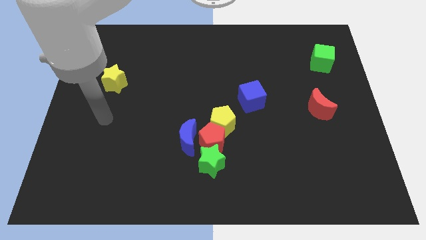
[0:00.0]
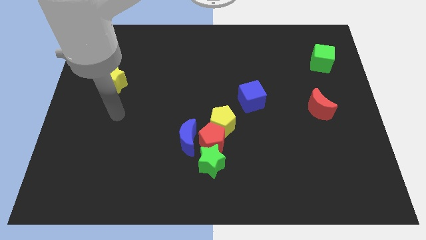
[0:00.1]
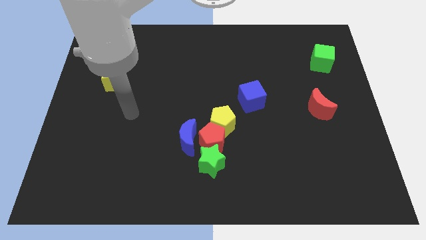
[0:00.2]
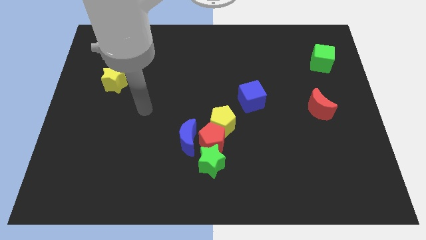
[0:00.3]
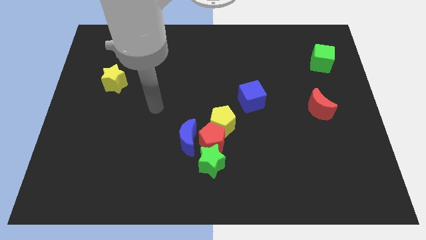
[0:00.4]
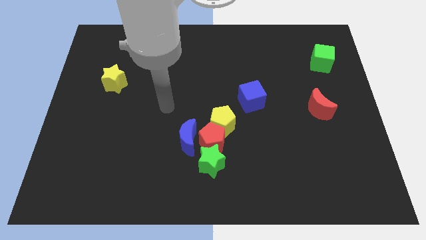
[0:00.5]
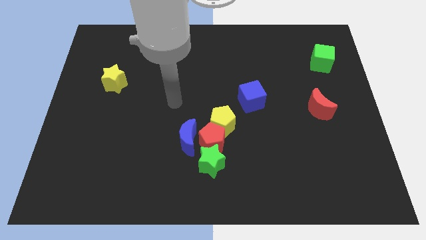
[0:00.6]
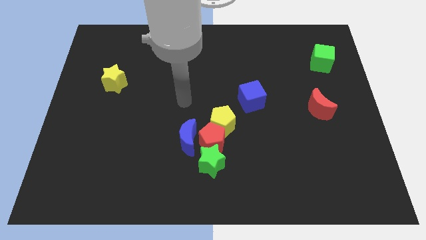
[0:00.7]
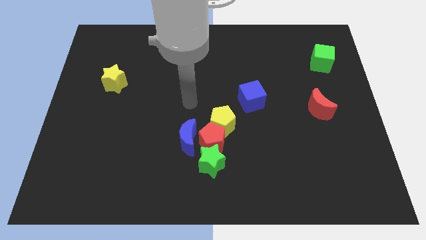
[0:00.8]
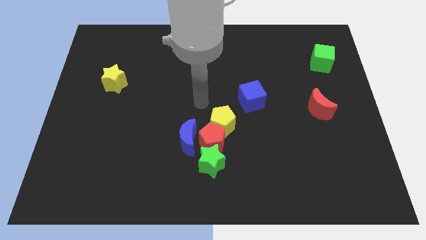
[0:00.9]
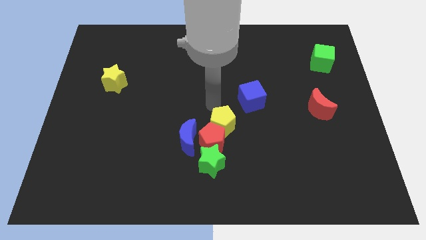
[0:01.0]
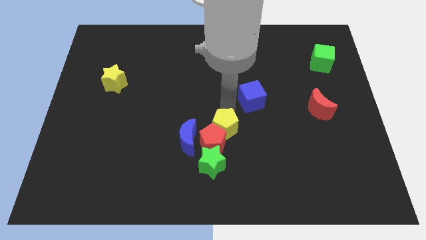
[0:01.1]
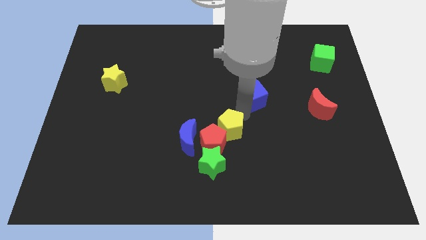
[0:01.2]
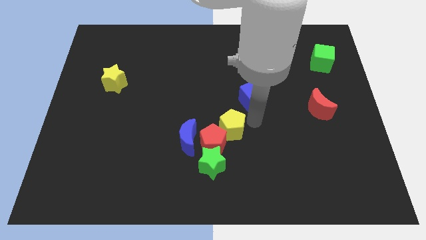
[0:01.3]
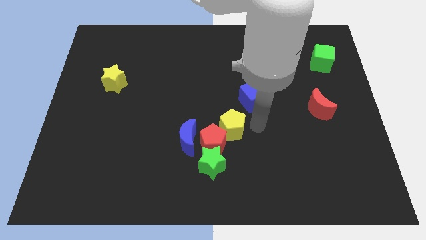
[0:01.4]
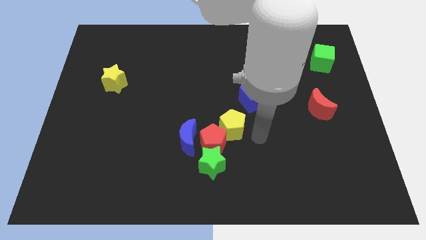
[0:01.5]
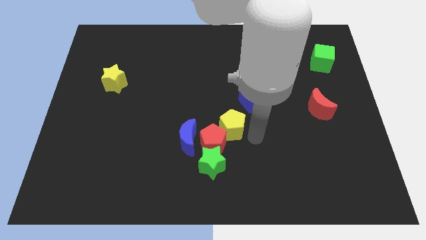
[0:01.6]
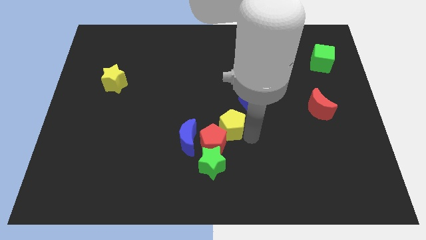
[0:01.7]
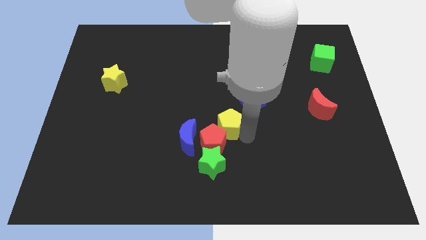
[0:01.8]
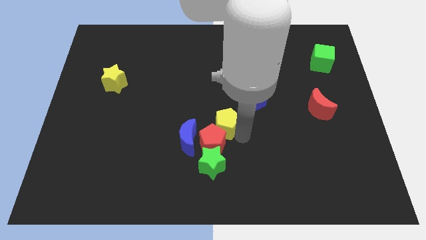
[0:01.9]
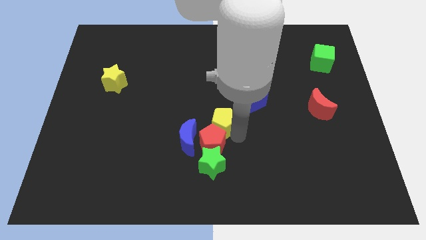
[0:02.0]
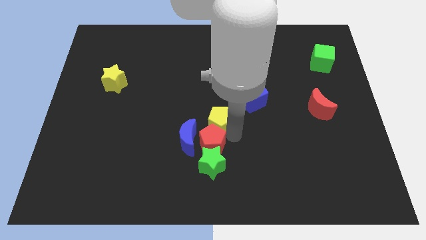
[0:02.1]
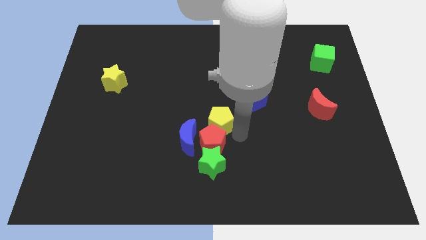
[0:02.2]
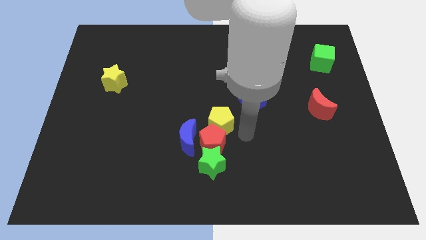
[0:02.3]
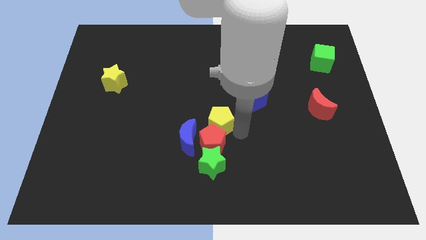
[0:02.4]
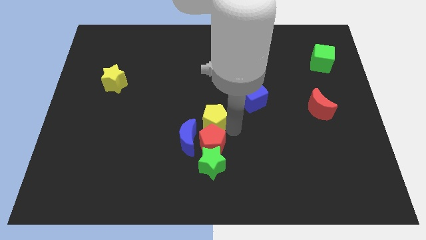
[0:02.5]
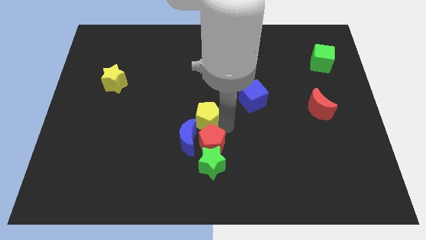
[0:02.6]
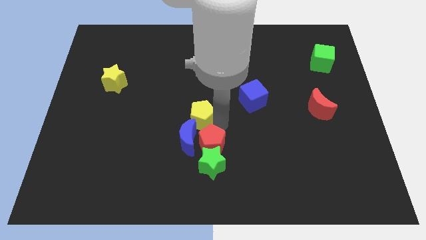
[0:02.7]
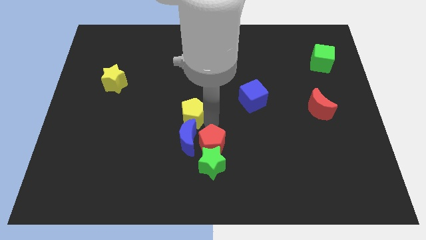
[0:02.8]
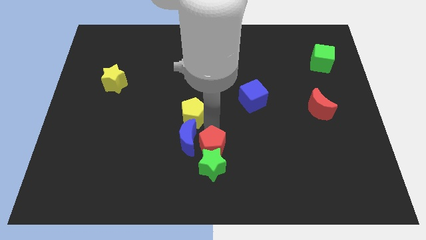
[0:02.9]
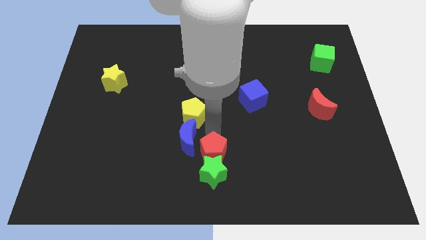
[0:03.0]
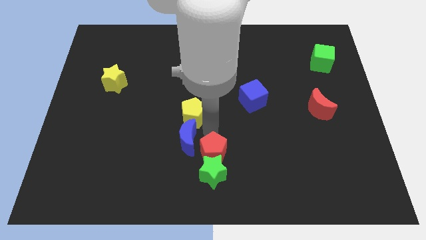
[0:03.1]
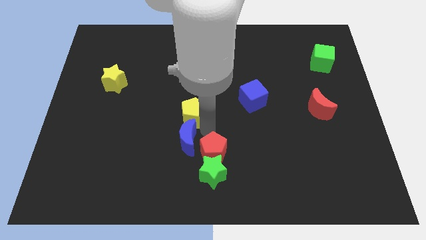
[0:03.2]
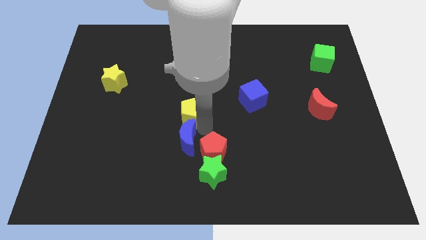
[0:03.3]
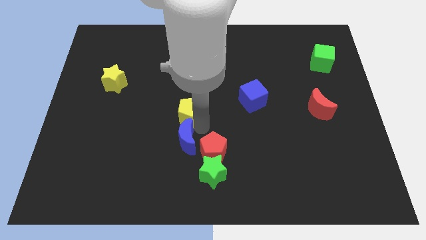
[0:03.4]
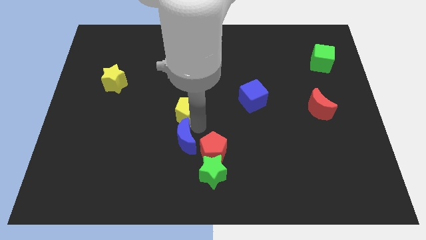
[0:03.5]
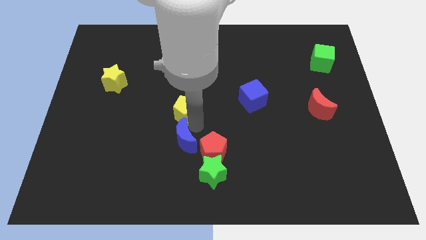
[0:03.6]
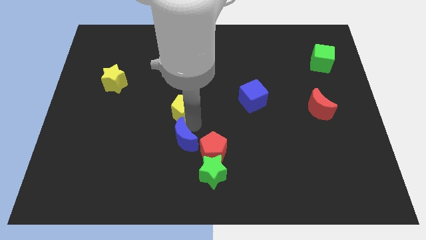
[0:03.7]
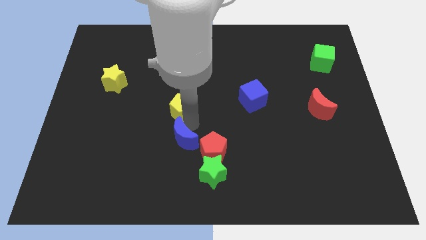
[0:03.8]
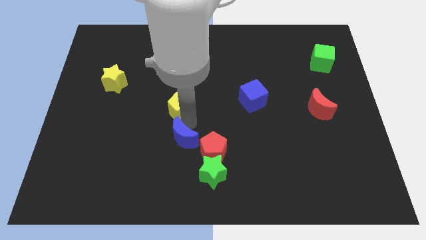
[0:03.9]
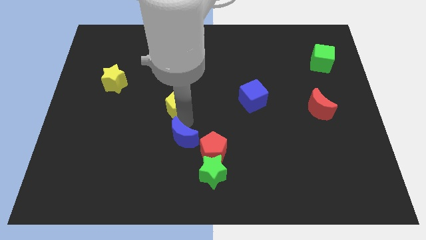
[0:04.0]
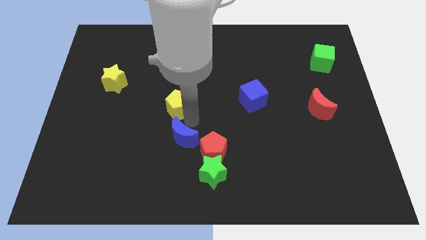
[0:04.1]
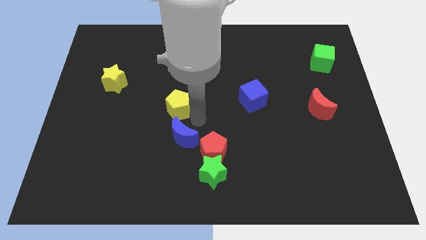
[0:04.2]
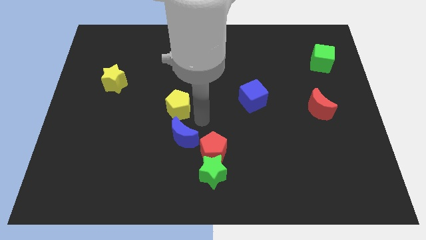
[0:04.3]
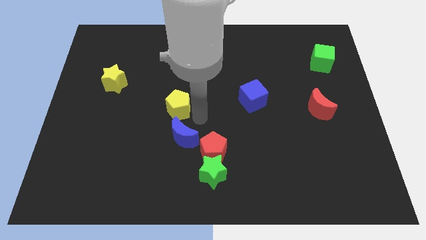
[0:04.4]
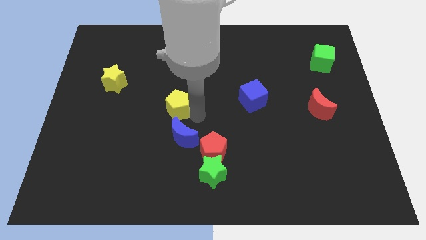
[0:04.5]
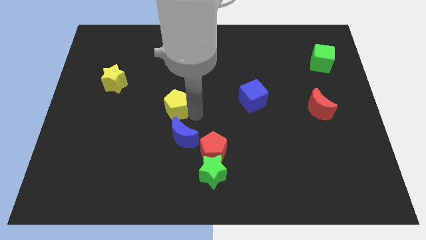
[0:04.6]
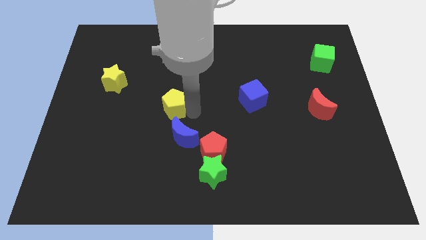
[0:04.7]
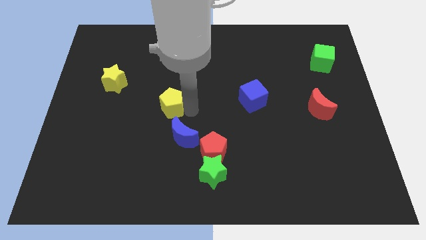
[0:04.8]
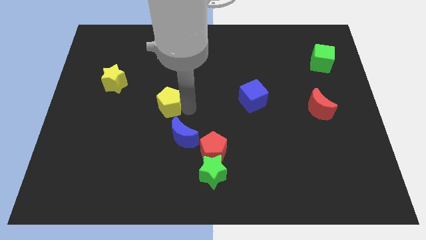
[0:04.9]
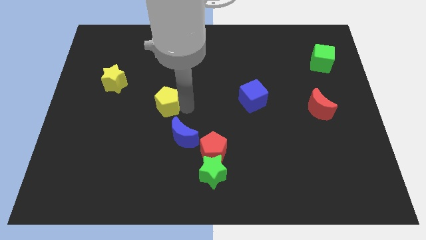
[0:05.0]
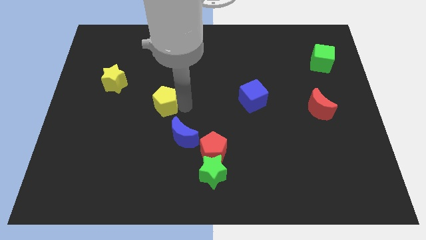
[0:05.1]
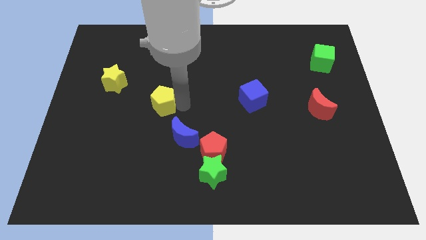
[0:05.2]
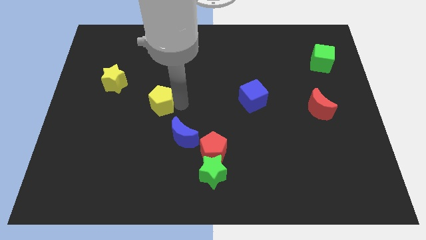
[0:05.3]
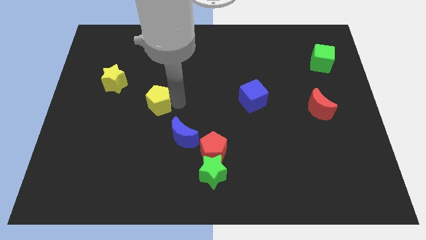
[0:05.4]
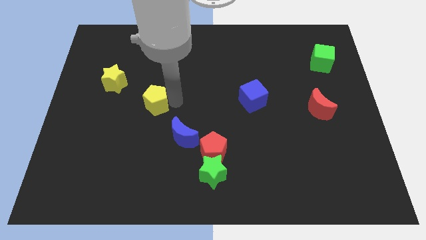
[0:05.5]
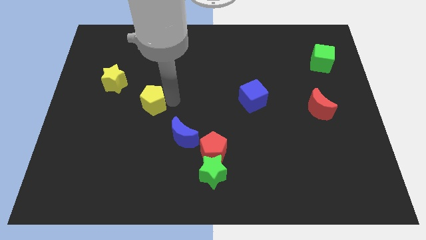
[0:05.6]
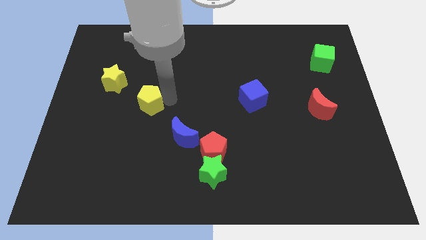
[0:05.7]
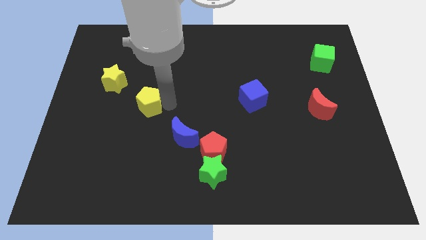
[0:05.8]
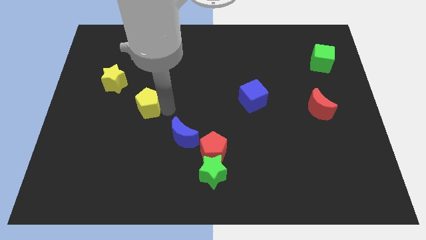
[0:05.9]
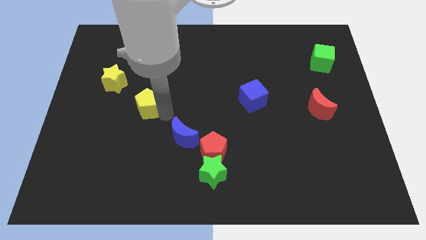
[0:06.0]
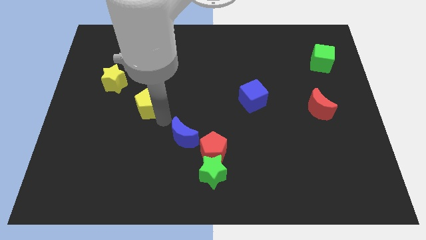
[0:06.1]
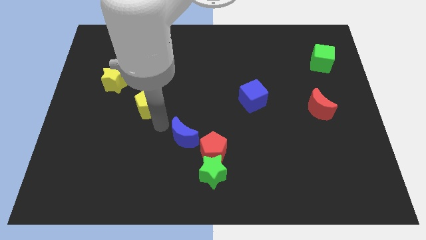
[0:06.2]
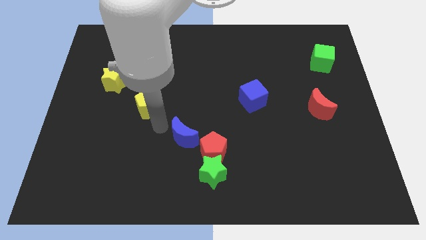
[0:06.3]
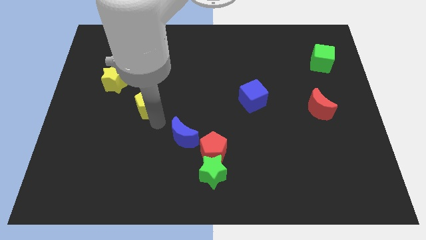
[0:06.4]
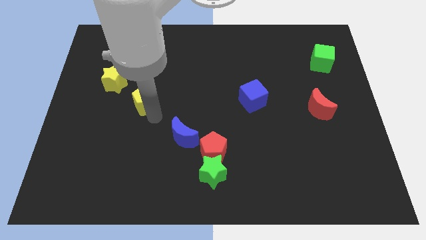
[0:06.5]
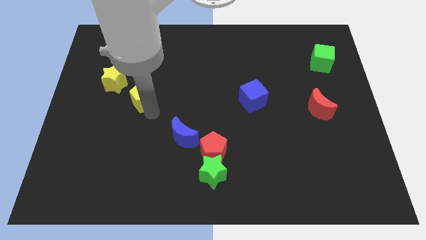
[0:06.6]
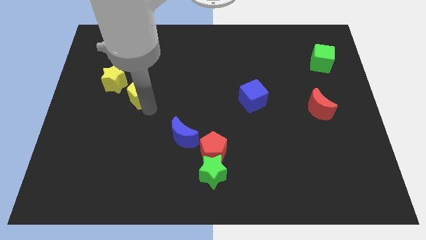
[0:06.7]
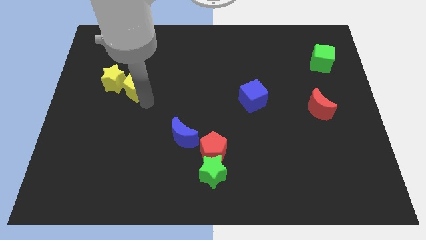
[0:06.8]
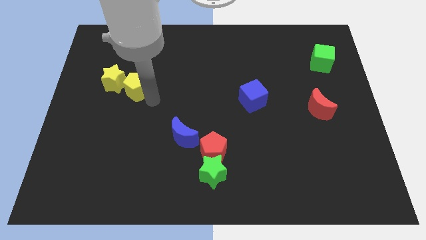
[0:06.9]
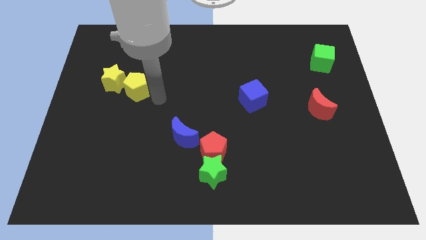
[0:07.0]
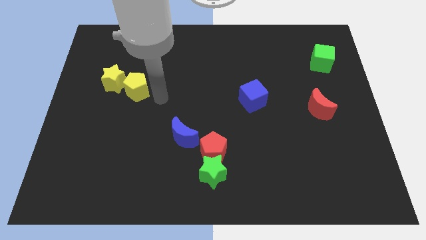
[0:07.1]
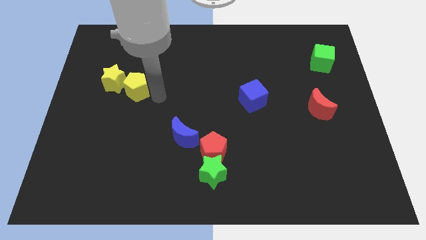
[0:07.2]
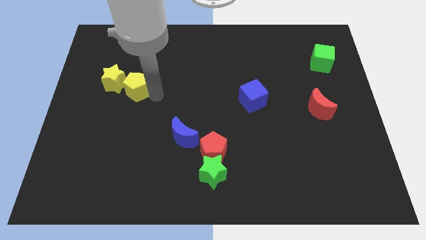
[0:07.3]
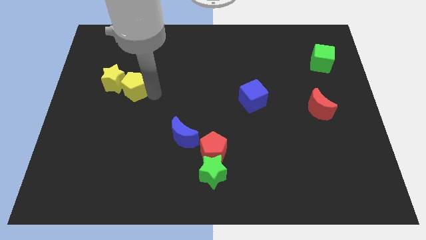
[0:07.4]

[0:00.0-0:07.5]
slide the yellow pentagon close to the yellow star
